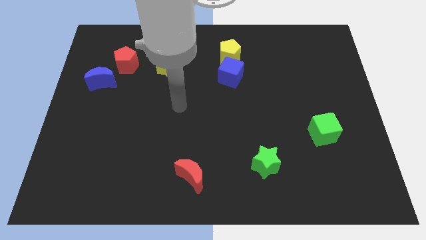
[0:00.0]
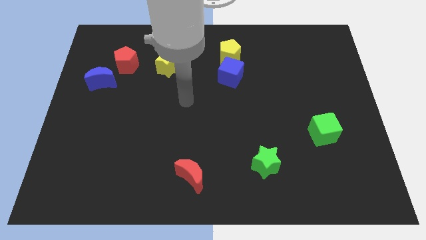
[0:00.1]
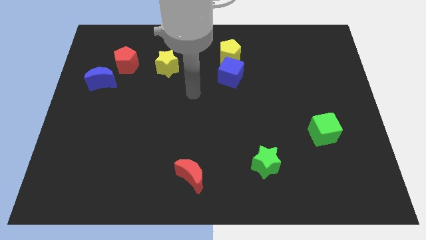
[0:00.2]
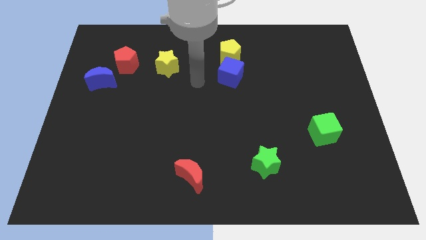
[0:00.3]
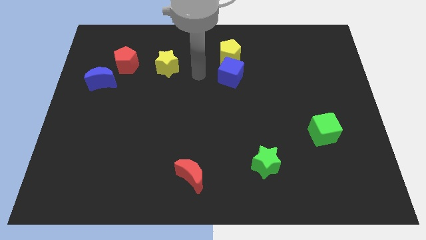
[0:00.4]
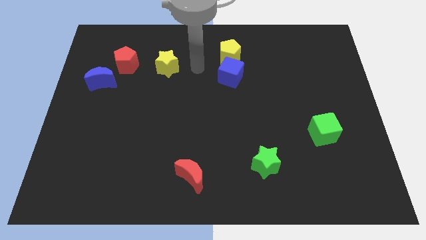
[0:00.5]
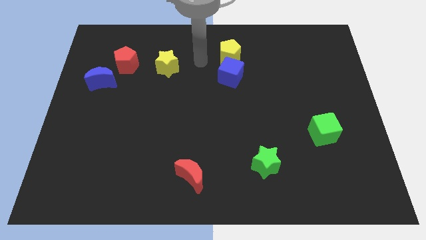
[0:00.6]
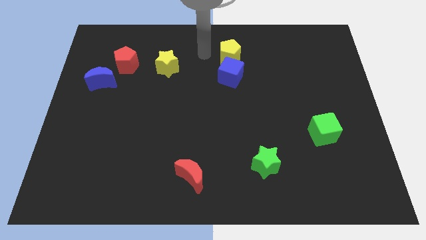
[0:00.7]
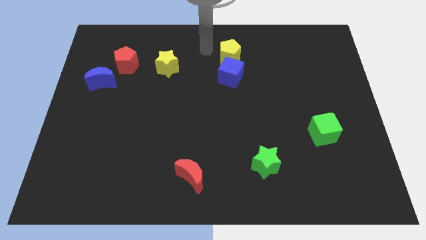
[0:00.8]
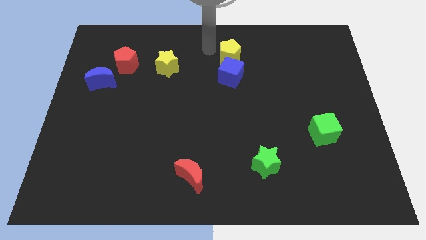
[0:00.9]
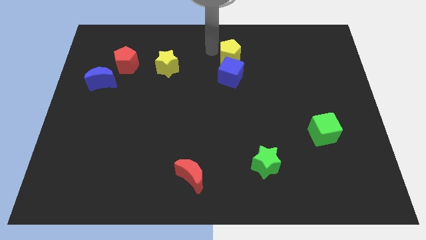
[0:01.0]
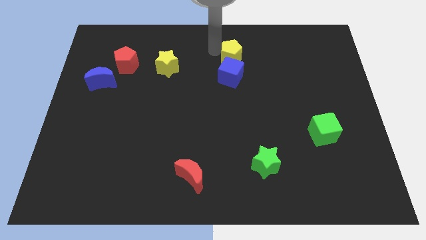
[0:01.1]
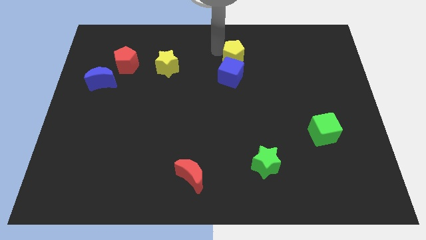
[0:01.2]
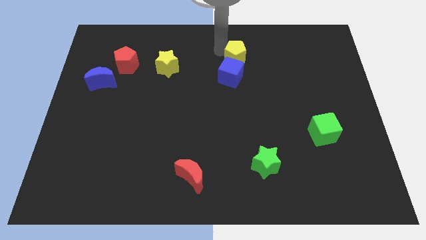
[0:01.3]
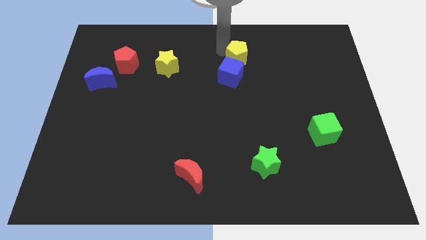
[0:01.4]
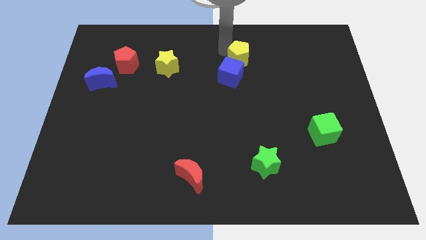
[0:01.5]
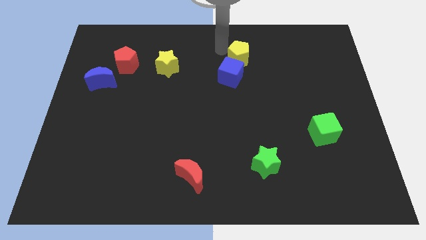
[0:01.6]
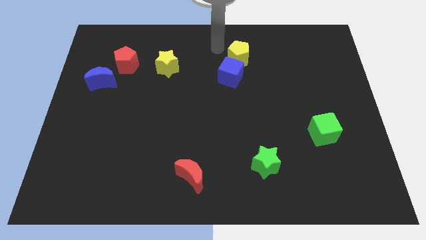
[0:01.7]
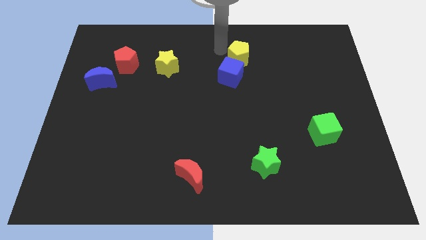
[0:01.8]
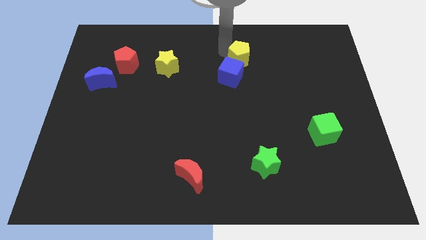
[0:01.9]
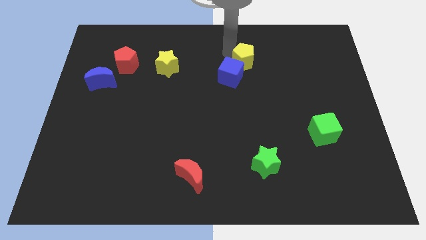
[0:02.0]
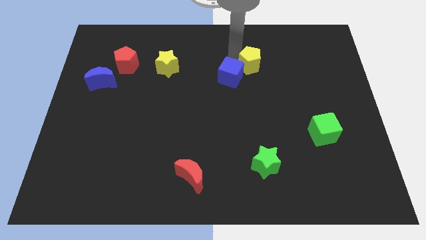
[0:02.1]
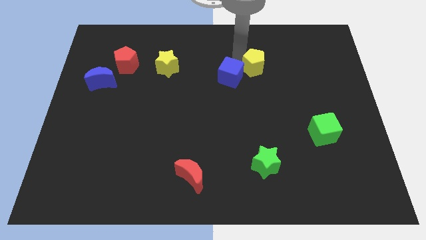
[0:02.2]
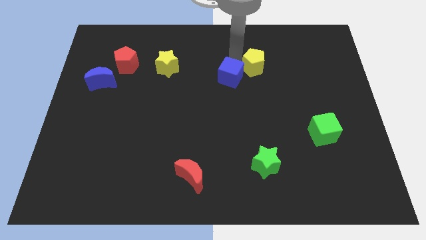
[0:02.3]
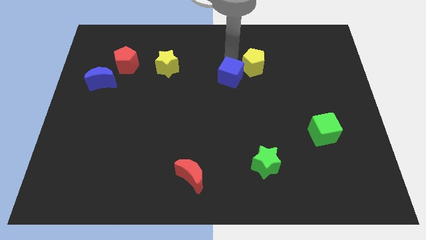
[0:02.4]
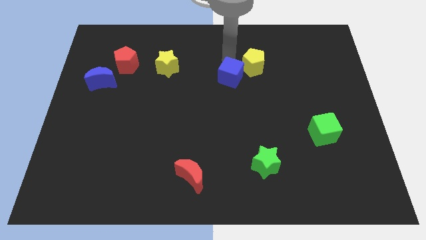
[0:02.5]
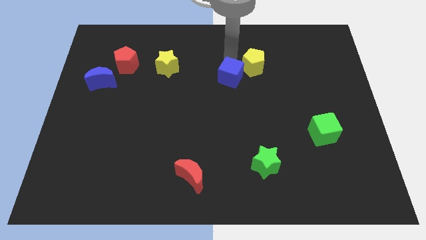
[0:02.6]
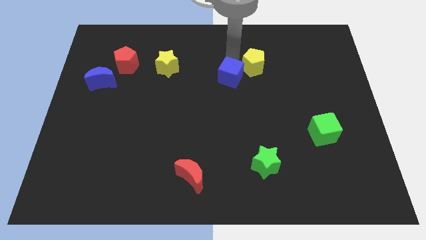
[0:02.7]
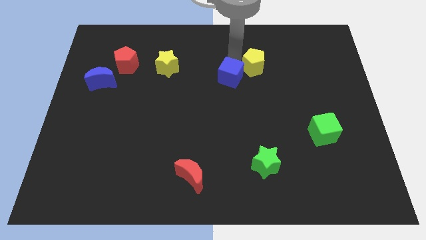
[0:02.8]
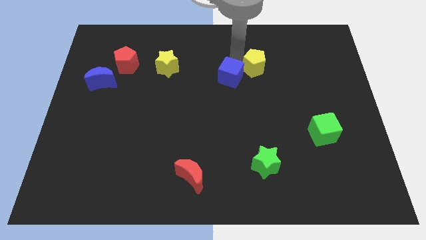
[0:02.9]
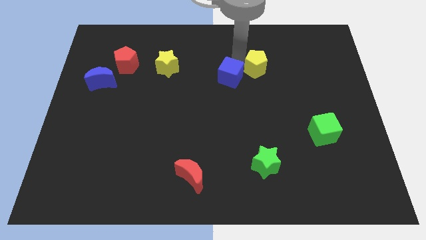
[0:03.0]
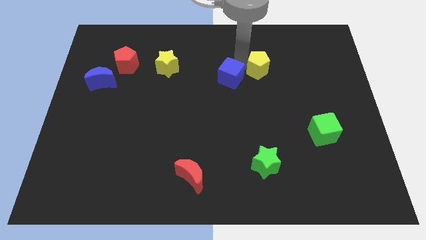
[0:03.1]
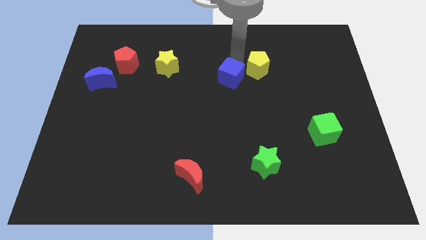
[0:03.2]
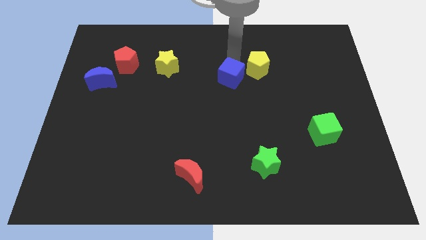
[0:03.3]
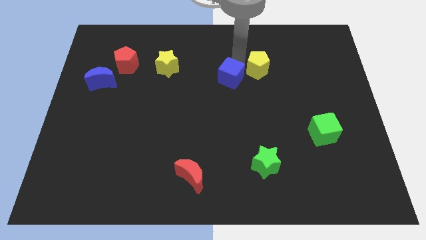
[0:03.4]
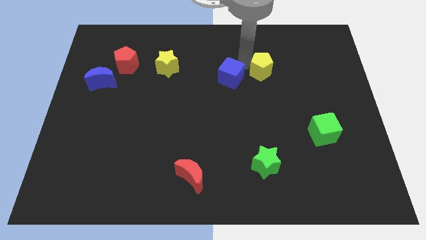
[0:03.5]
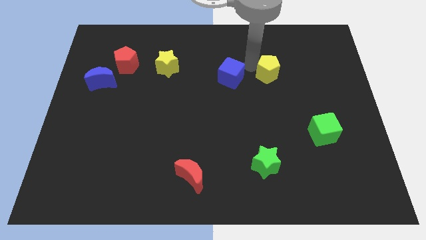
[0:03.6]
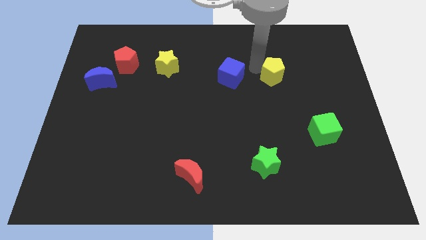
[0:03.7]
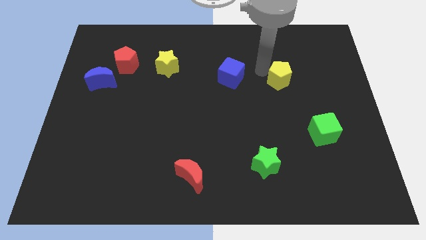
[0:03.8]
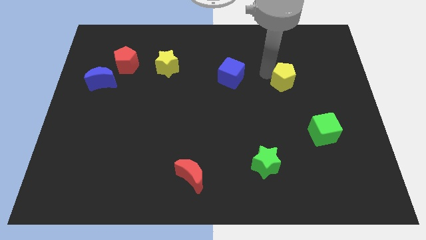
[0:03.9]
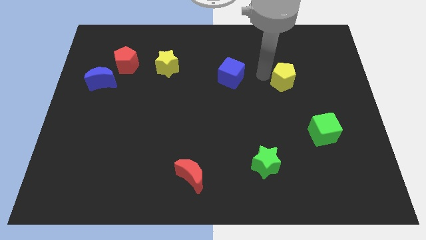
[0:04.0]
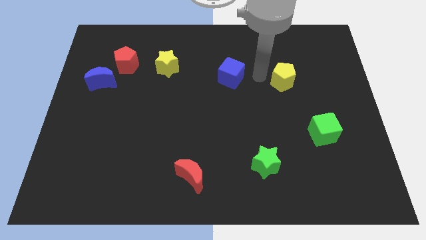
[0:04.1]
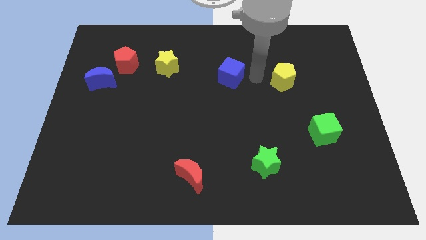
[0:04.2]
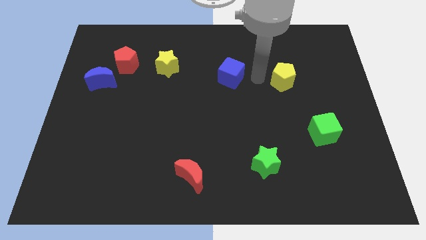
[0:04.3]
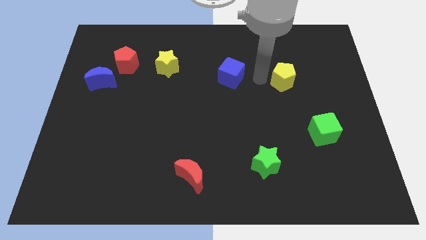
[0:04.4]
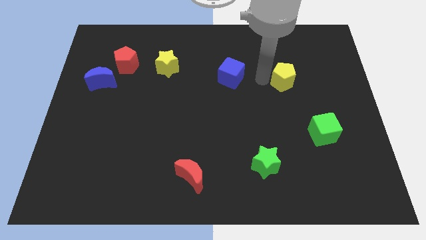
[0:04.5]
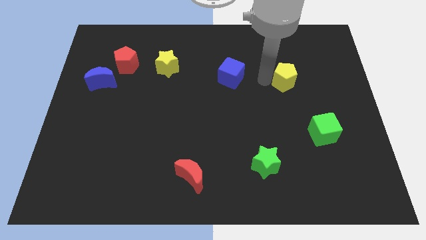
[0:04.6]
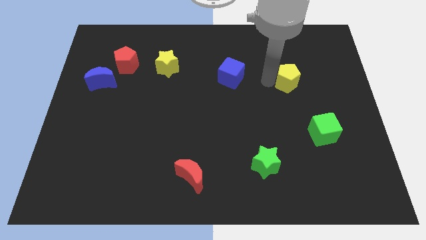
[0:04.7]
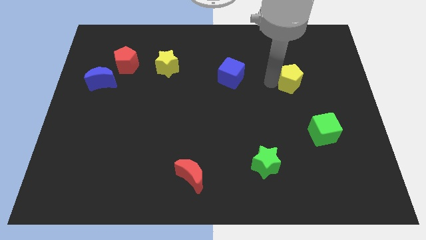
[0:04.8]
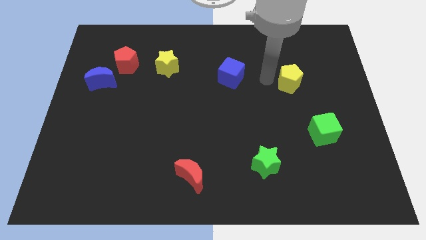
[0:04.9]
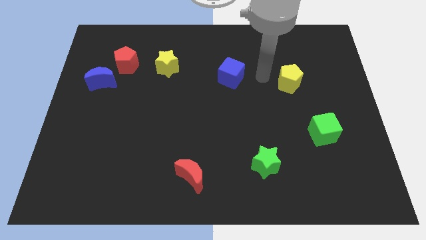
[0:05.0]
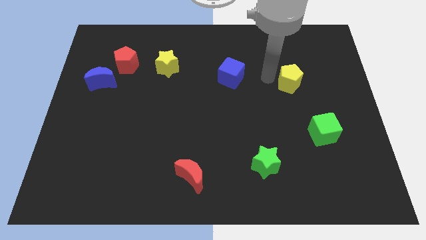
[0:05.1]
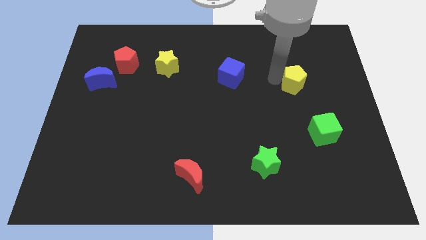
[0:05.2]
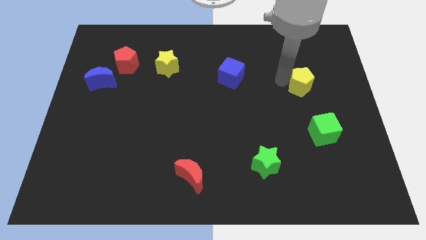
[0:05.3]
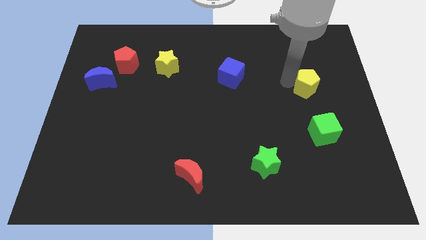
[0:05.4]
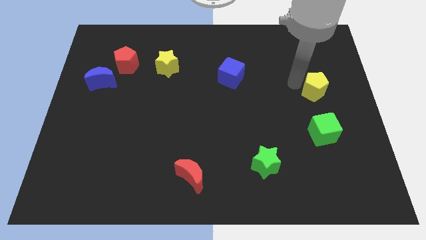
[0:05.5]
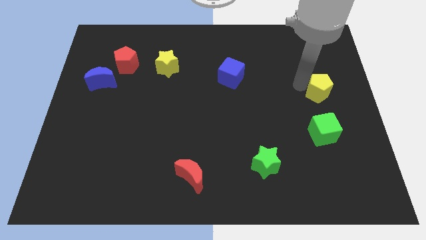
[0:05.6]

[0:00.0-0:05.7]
put the yellow pentagon to the right side of the board
